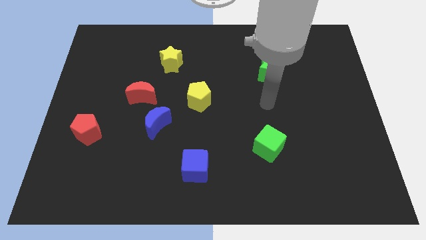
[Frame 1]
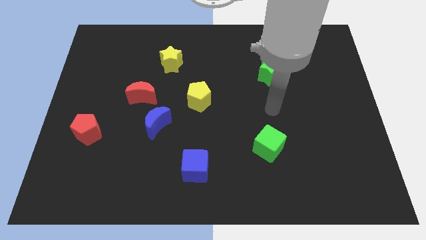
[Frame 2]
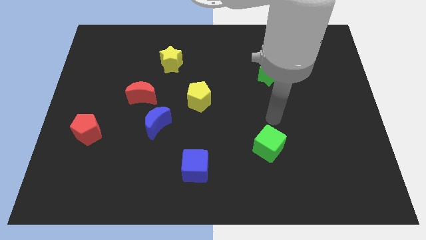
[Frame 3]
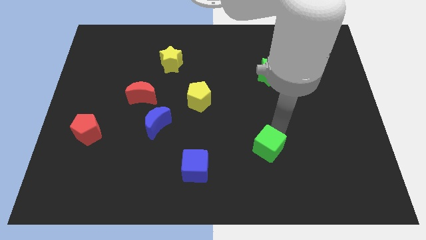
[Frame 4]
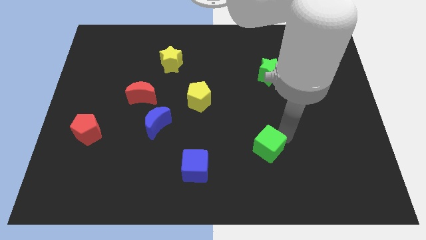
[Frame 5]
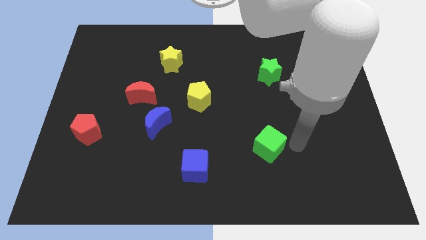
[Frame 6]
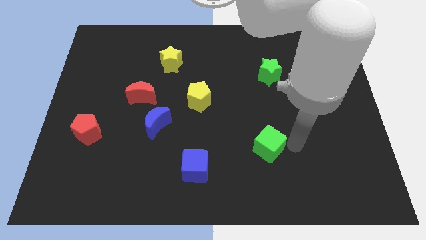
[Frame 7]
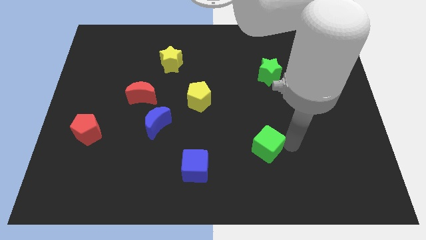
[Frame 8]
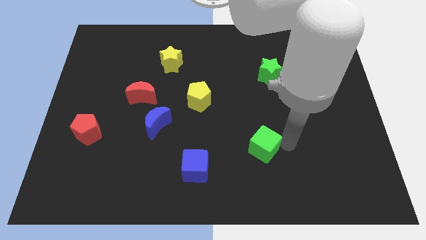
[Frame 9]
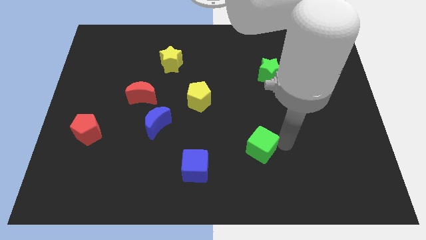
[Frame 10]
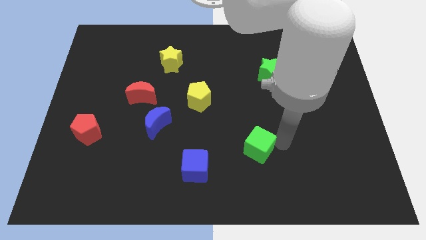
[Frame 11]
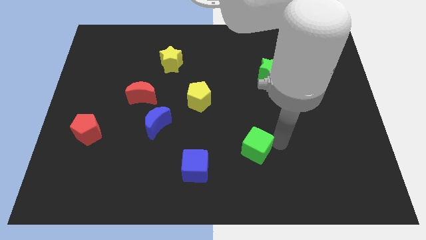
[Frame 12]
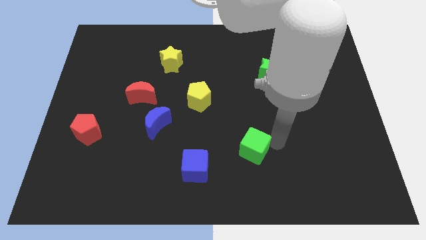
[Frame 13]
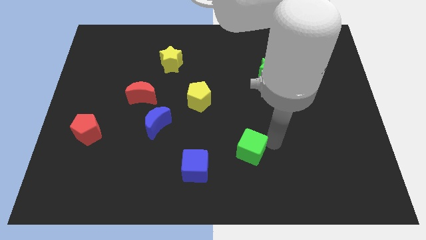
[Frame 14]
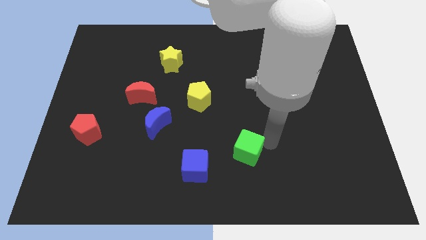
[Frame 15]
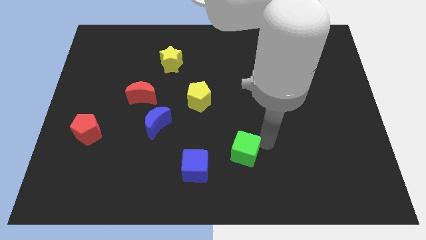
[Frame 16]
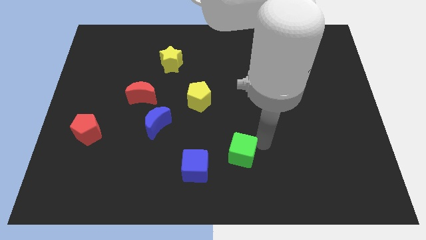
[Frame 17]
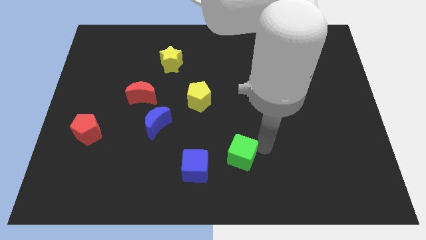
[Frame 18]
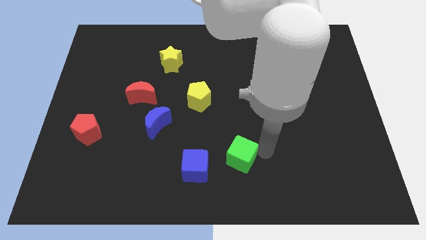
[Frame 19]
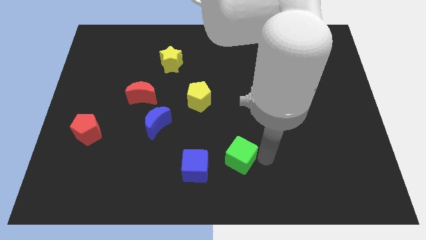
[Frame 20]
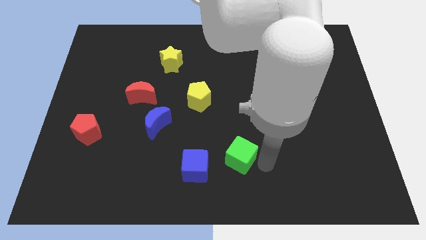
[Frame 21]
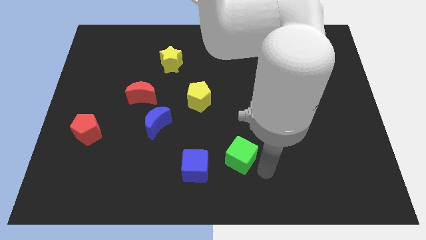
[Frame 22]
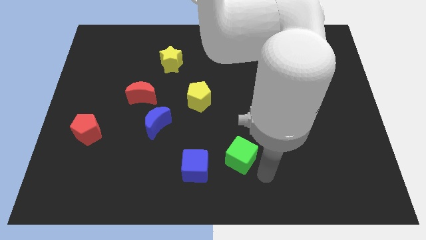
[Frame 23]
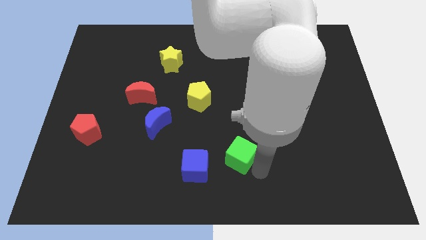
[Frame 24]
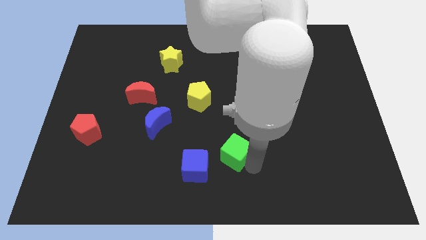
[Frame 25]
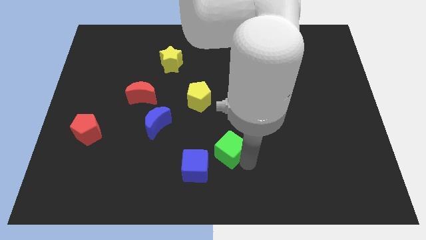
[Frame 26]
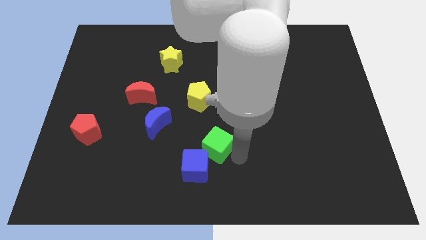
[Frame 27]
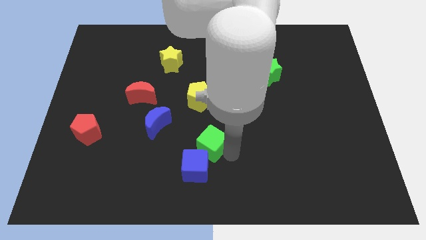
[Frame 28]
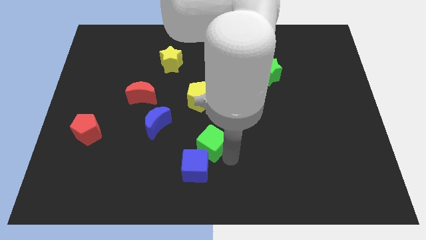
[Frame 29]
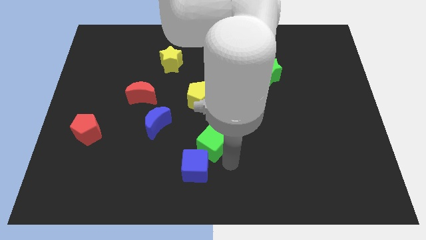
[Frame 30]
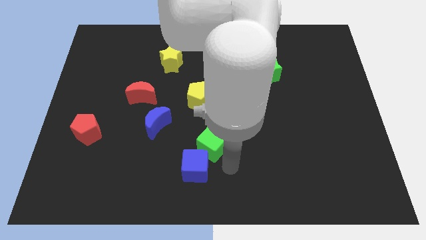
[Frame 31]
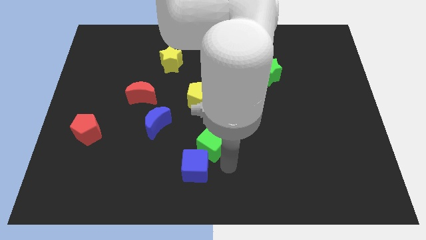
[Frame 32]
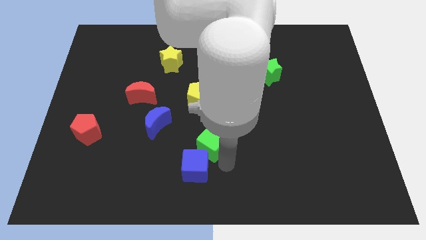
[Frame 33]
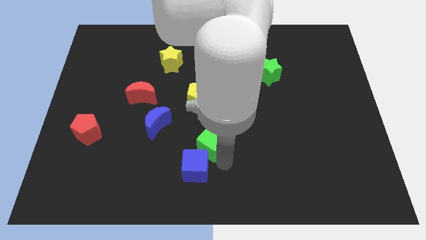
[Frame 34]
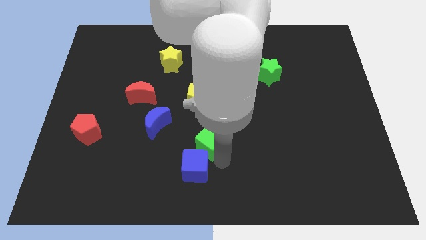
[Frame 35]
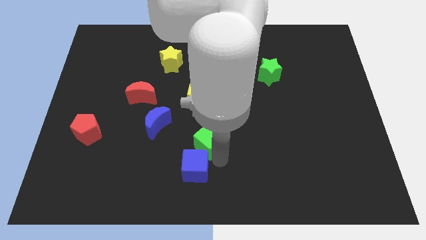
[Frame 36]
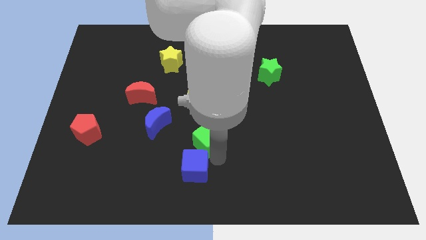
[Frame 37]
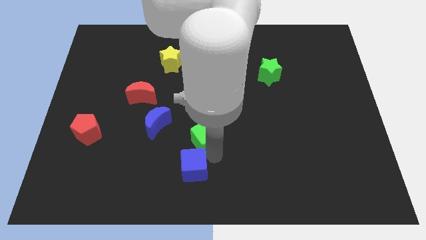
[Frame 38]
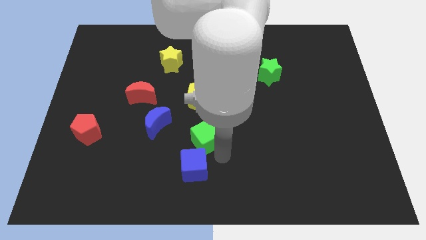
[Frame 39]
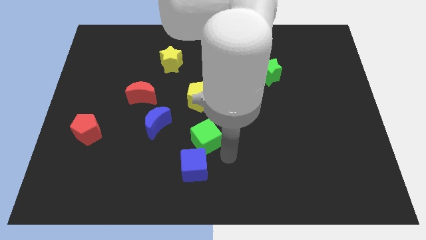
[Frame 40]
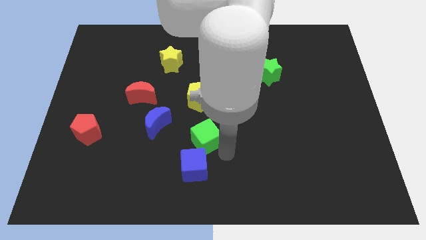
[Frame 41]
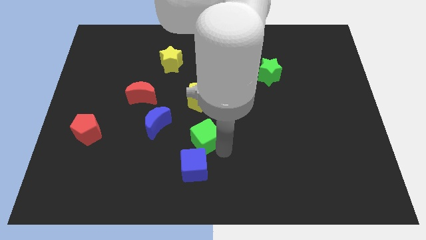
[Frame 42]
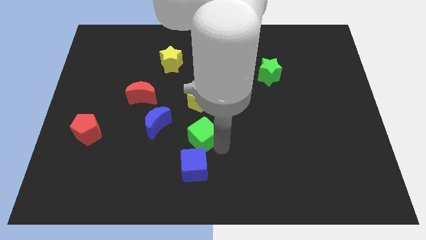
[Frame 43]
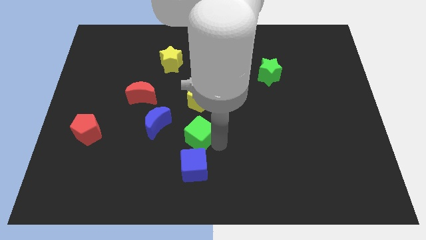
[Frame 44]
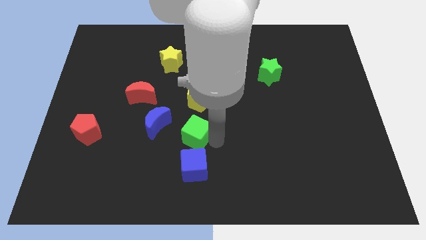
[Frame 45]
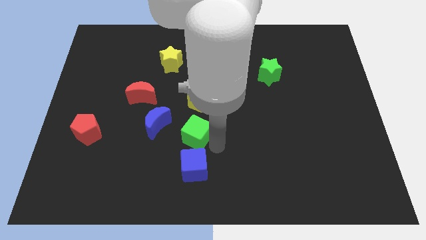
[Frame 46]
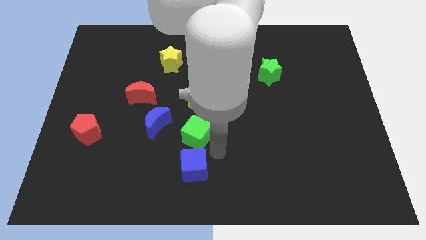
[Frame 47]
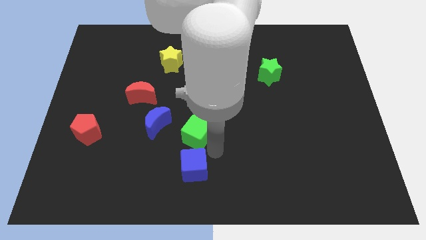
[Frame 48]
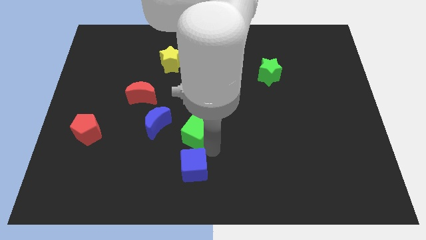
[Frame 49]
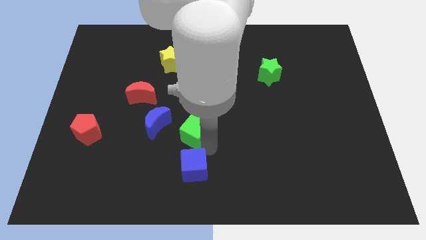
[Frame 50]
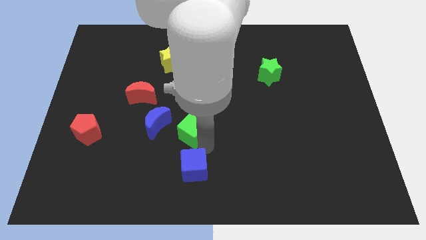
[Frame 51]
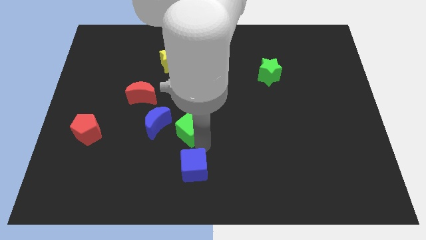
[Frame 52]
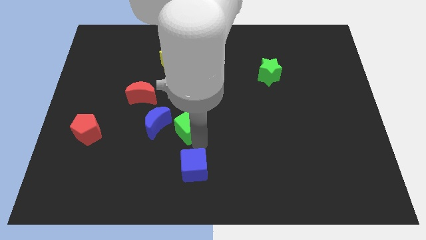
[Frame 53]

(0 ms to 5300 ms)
put the green cube to the bottom left of the yellow pentagon

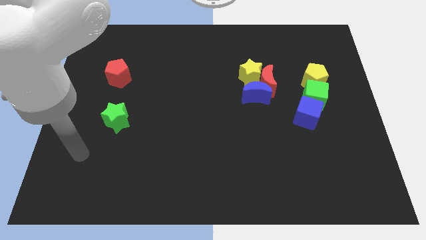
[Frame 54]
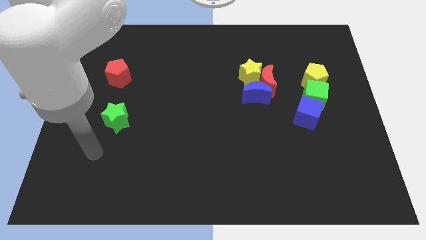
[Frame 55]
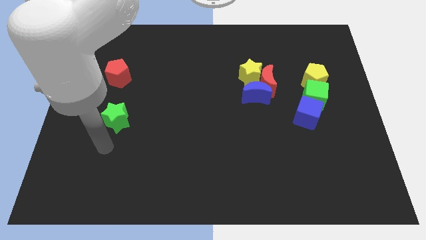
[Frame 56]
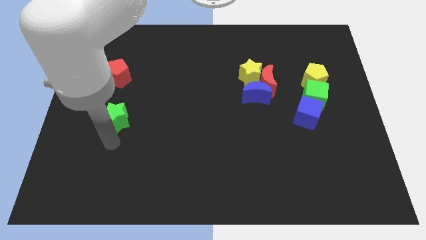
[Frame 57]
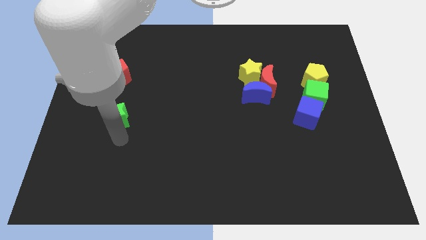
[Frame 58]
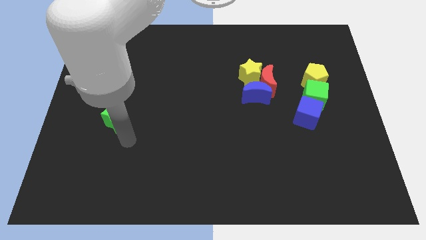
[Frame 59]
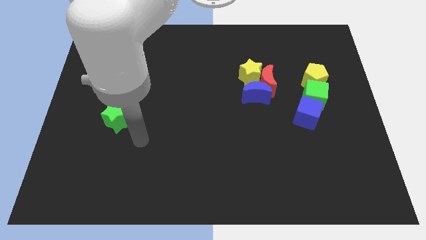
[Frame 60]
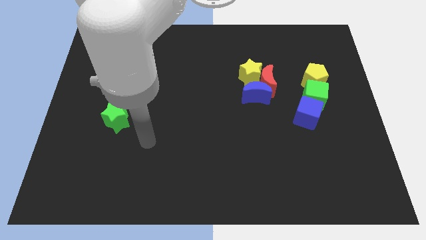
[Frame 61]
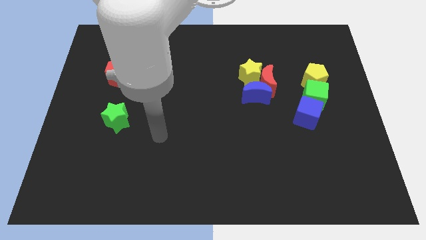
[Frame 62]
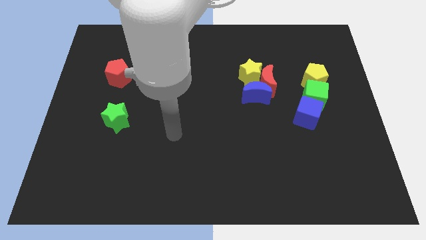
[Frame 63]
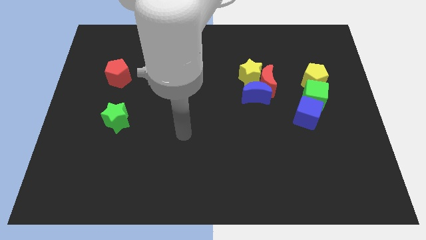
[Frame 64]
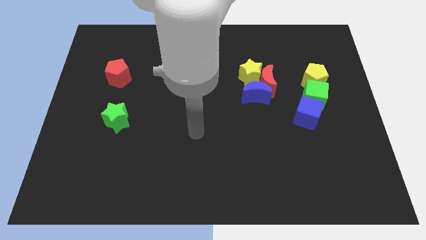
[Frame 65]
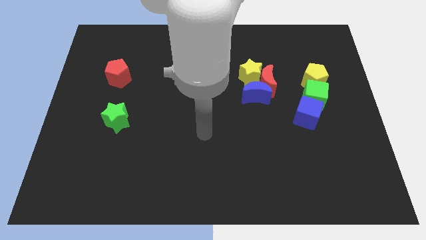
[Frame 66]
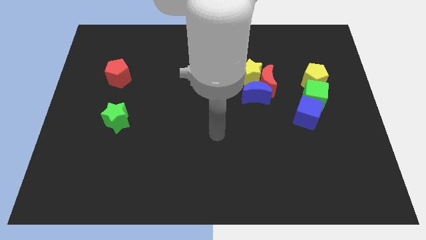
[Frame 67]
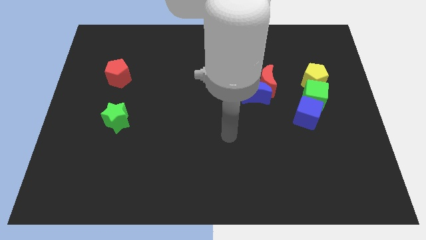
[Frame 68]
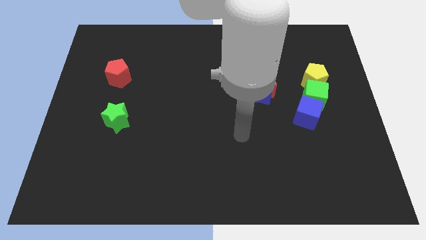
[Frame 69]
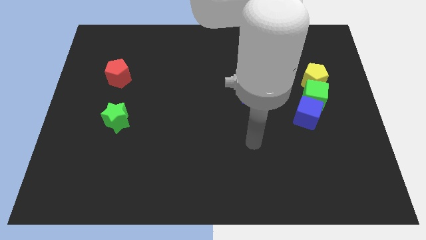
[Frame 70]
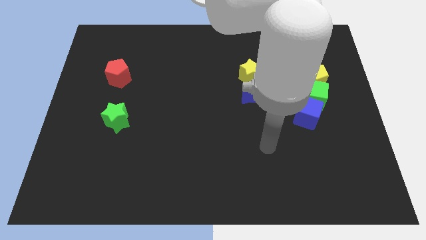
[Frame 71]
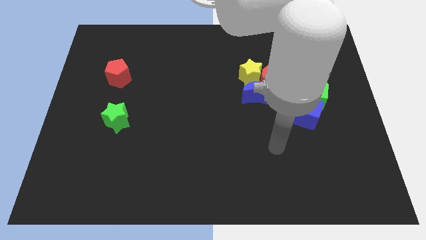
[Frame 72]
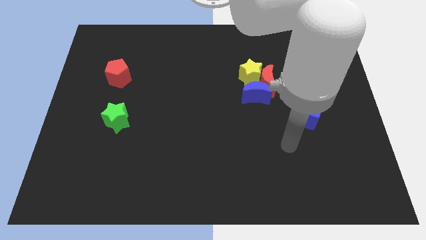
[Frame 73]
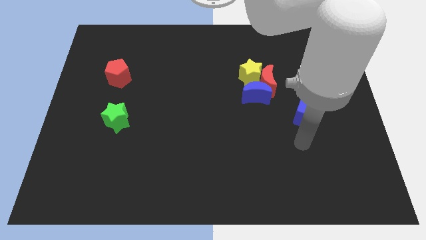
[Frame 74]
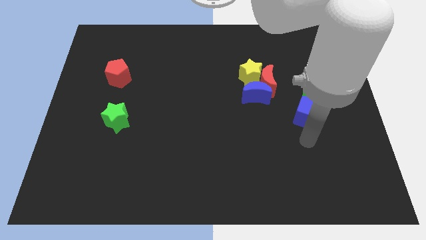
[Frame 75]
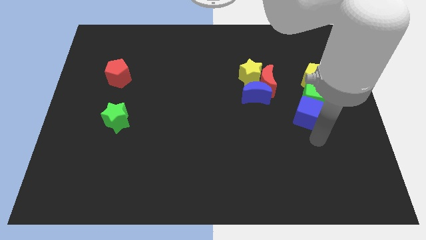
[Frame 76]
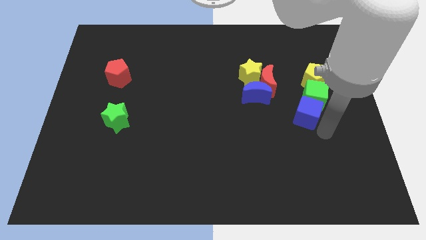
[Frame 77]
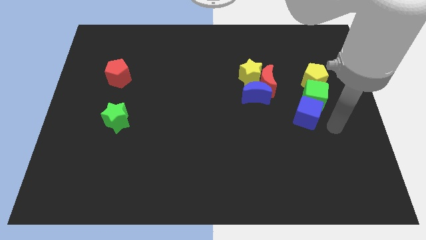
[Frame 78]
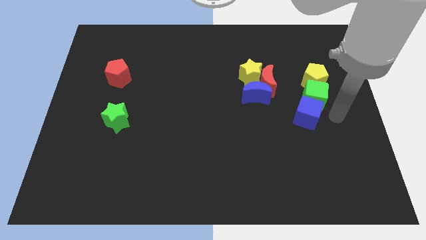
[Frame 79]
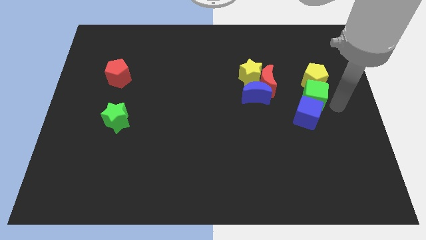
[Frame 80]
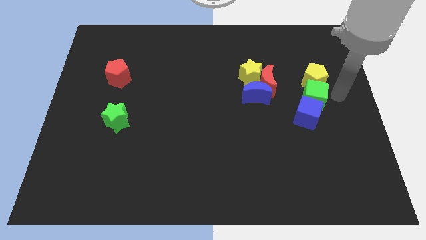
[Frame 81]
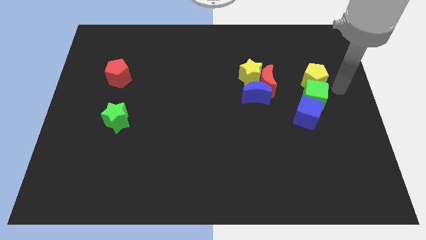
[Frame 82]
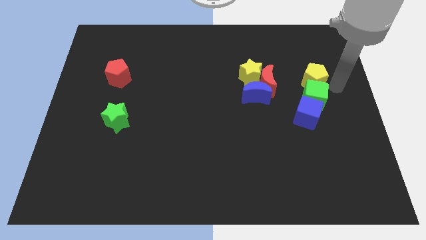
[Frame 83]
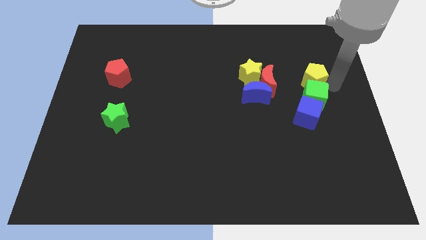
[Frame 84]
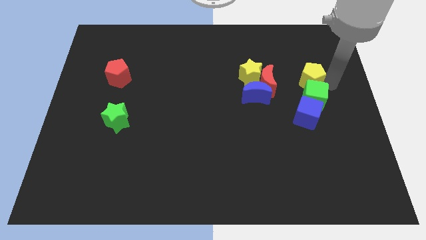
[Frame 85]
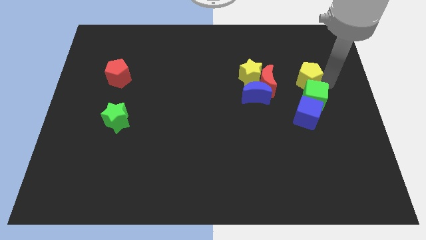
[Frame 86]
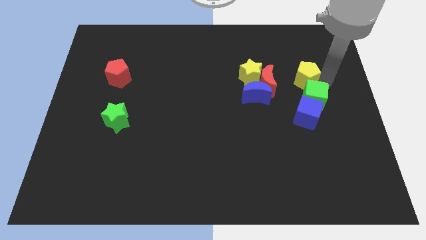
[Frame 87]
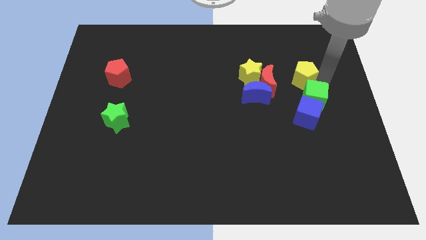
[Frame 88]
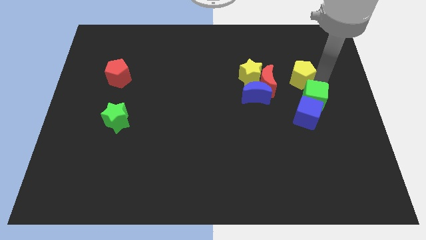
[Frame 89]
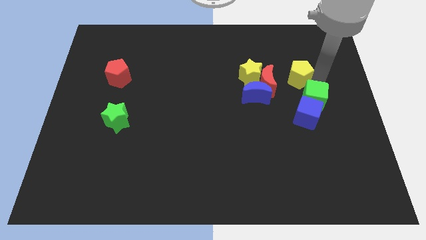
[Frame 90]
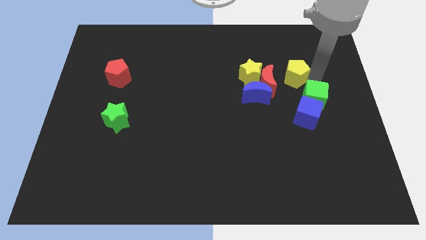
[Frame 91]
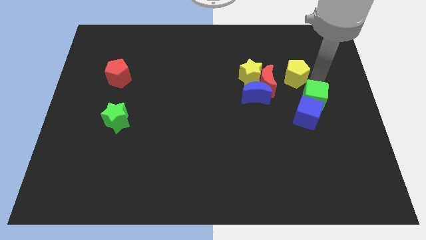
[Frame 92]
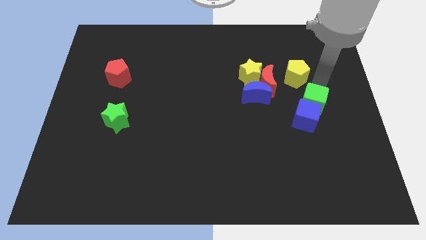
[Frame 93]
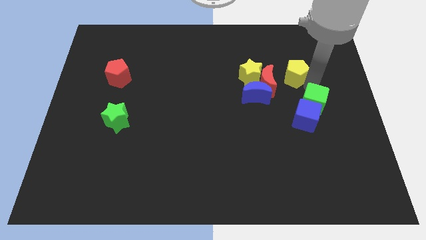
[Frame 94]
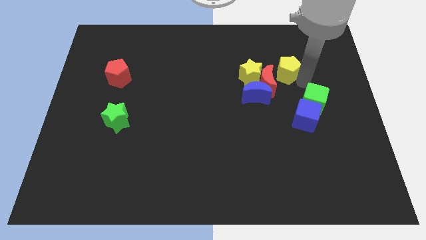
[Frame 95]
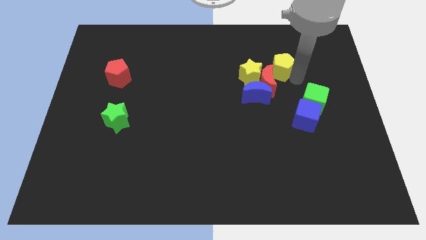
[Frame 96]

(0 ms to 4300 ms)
move the yellow pentagon to the top right side of the yellow star
